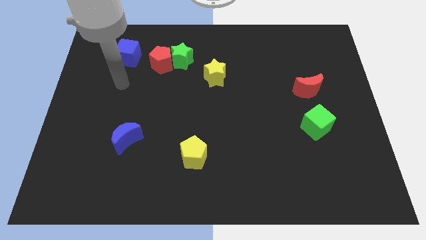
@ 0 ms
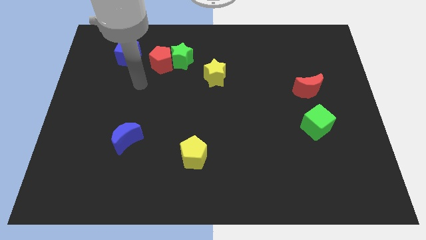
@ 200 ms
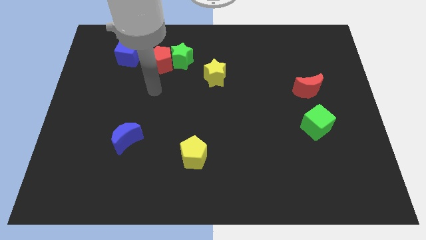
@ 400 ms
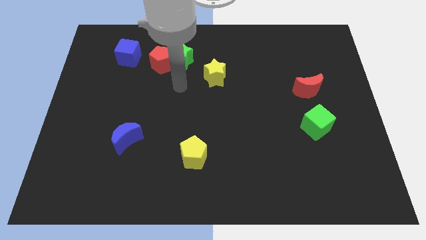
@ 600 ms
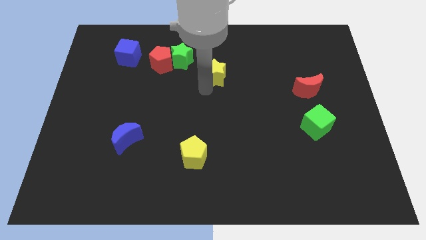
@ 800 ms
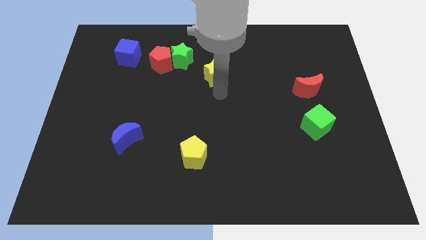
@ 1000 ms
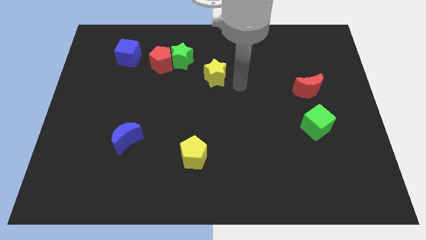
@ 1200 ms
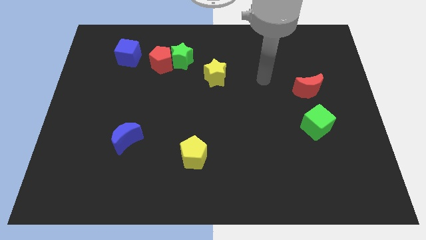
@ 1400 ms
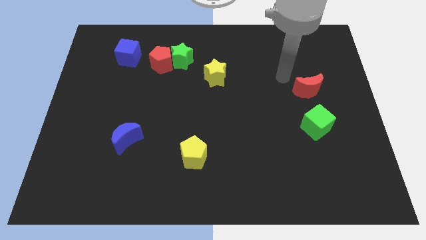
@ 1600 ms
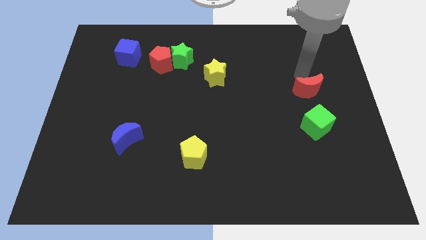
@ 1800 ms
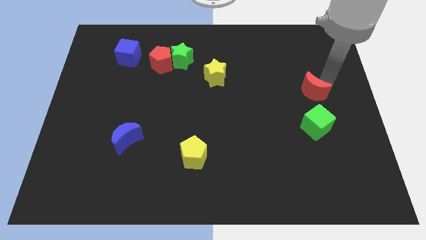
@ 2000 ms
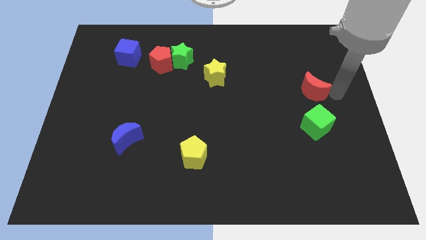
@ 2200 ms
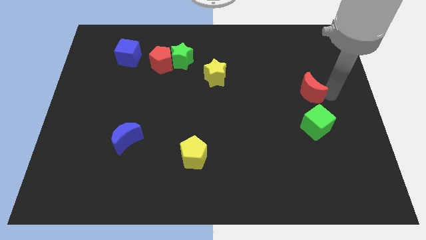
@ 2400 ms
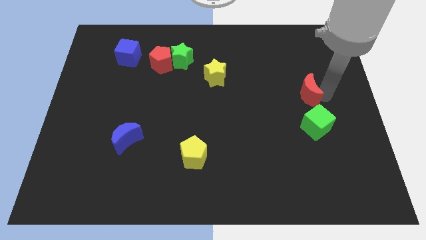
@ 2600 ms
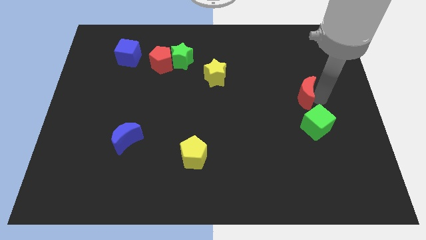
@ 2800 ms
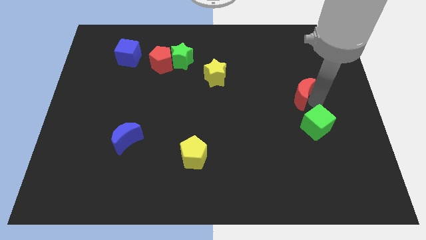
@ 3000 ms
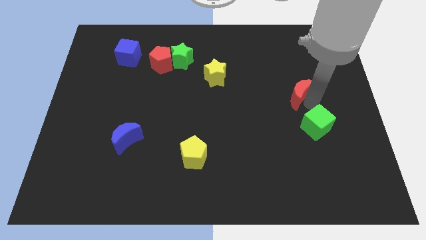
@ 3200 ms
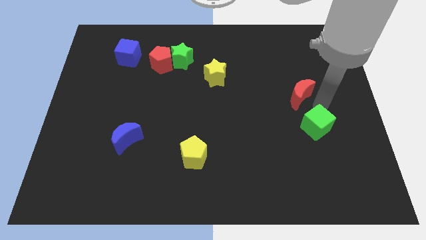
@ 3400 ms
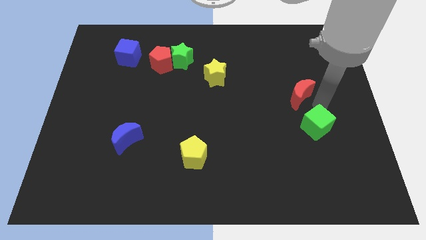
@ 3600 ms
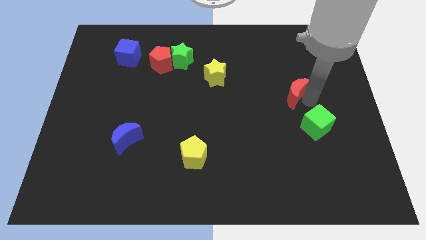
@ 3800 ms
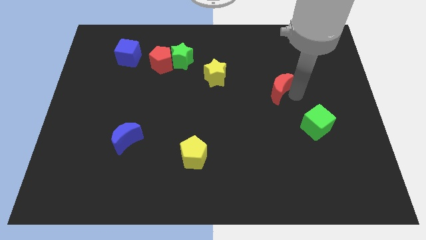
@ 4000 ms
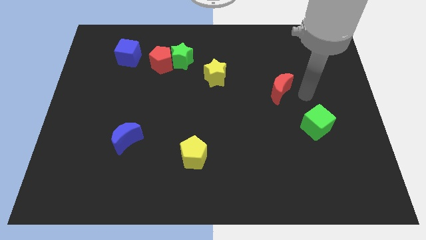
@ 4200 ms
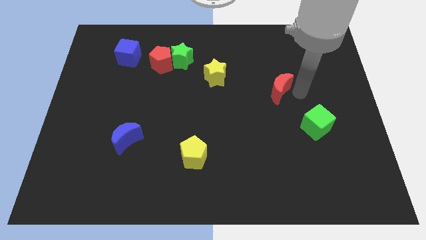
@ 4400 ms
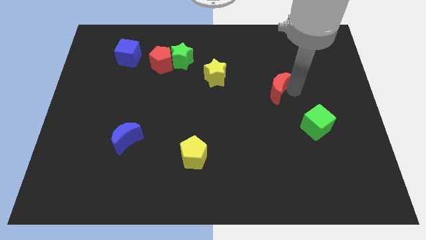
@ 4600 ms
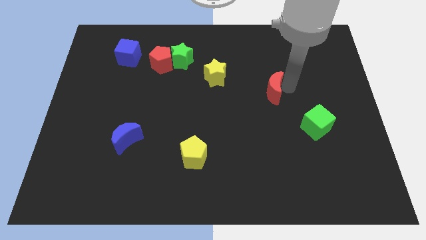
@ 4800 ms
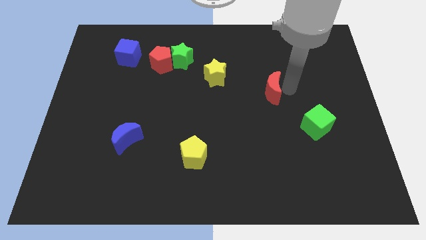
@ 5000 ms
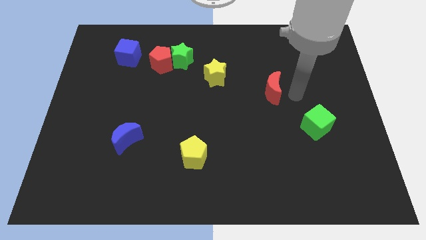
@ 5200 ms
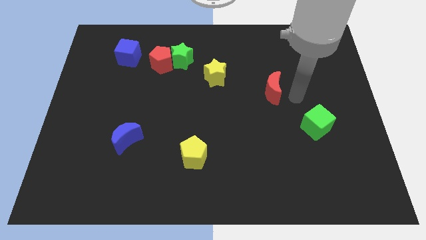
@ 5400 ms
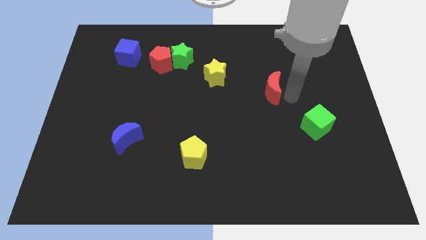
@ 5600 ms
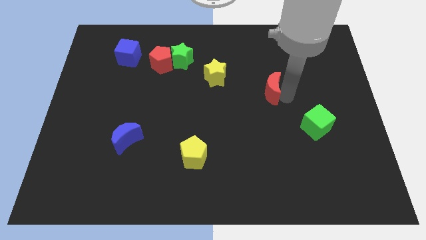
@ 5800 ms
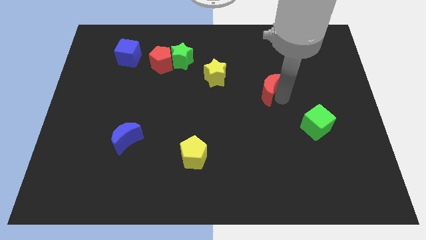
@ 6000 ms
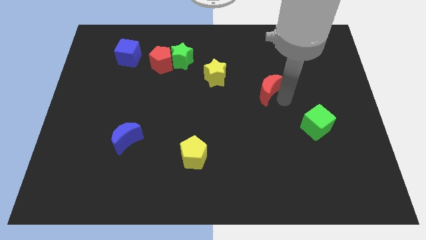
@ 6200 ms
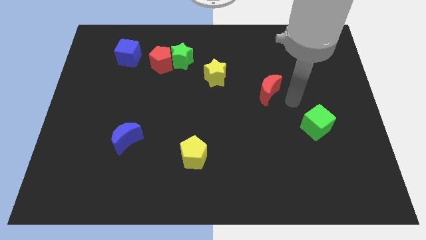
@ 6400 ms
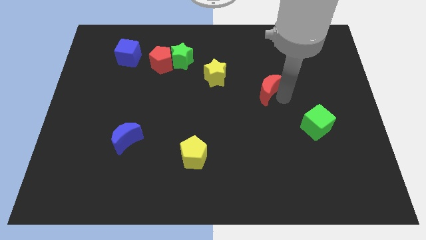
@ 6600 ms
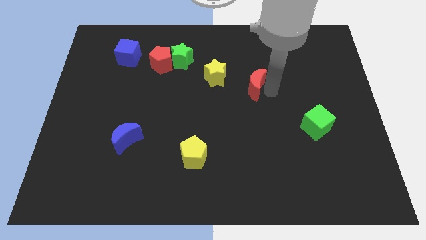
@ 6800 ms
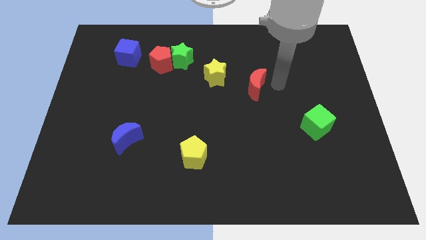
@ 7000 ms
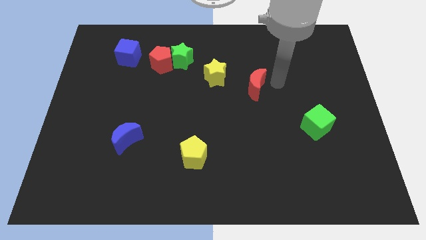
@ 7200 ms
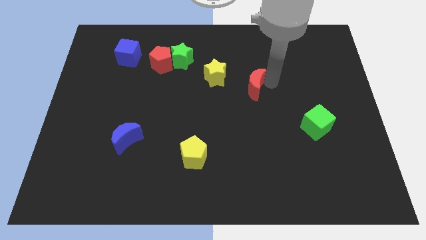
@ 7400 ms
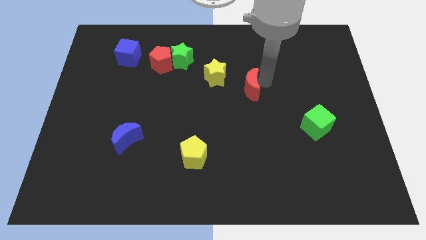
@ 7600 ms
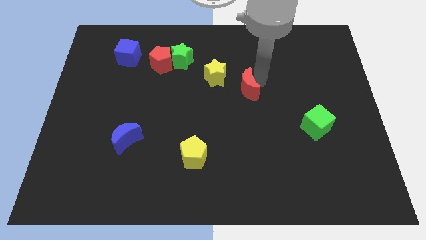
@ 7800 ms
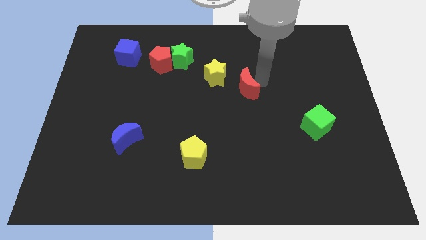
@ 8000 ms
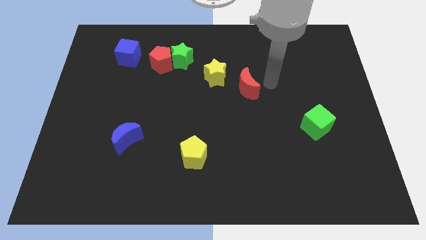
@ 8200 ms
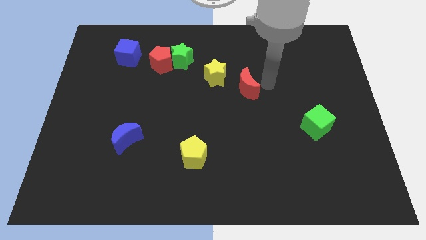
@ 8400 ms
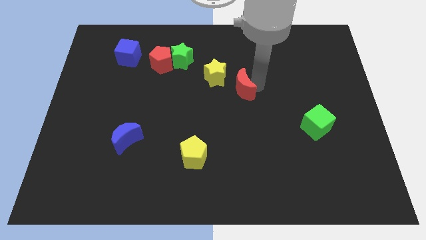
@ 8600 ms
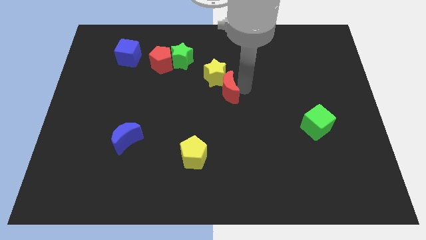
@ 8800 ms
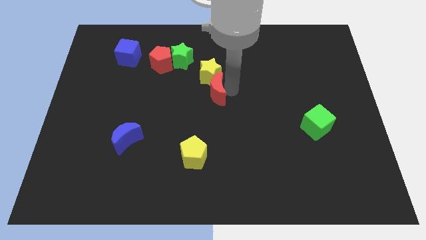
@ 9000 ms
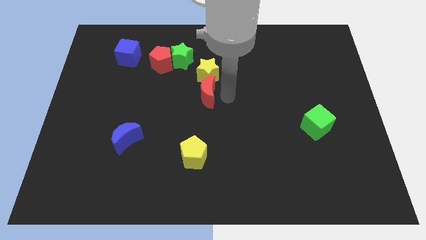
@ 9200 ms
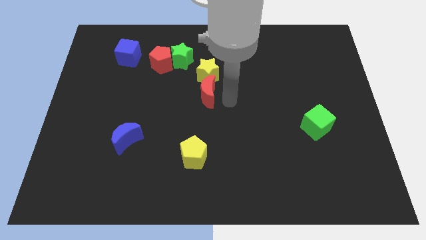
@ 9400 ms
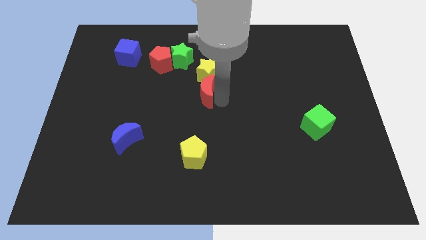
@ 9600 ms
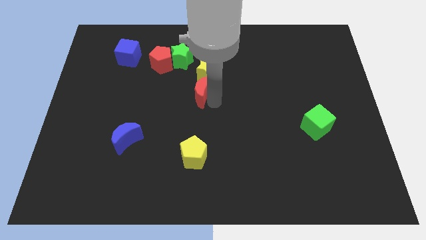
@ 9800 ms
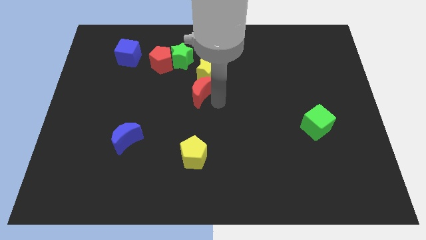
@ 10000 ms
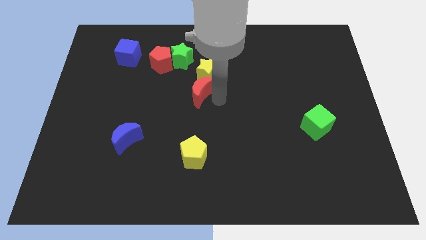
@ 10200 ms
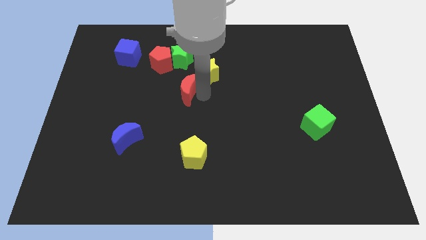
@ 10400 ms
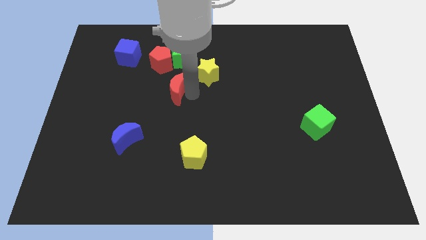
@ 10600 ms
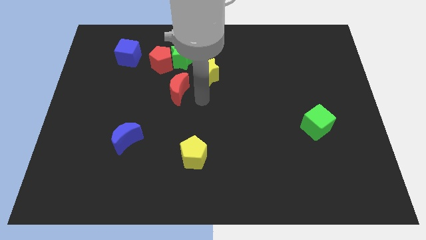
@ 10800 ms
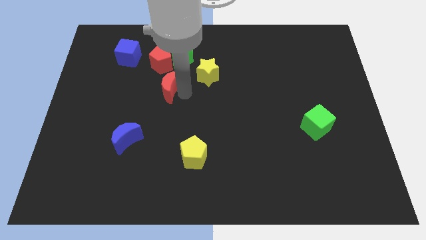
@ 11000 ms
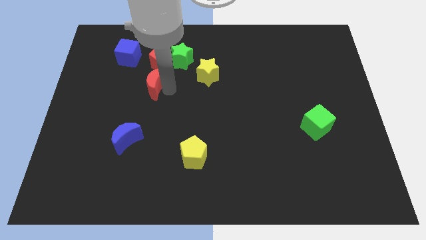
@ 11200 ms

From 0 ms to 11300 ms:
move the red moon diagonally down and to the left of the red pentagon

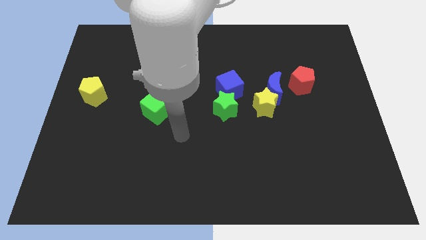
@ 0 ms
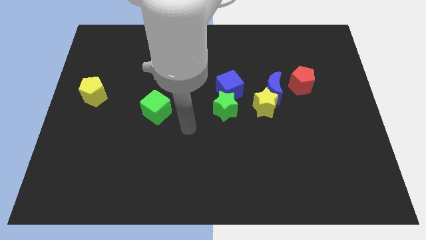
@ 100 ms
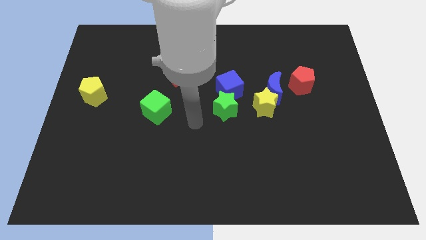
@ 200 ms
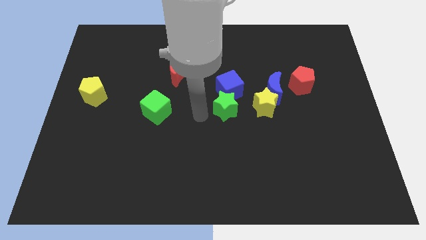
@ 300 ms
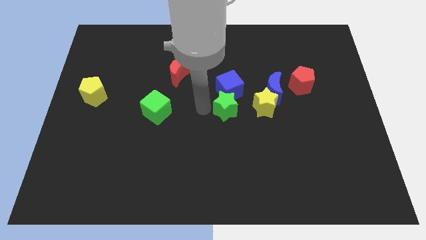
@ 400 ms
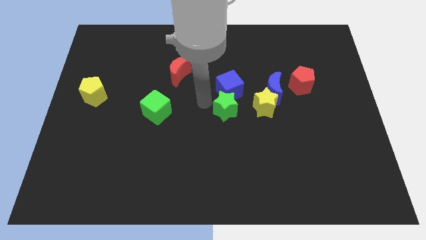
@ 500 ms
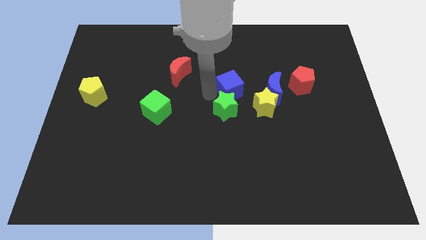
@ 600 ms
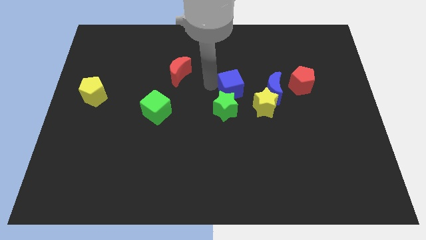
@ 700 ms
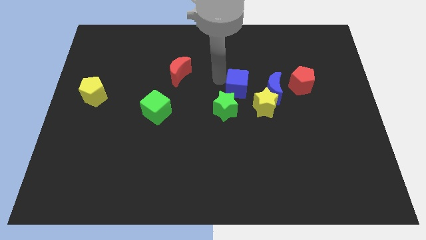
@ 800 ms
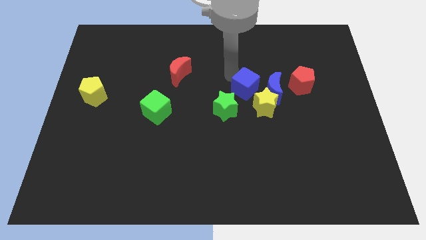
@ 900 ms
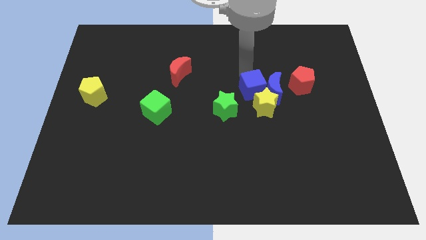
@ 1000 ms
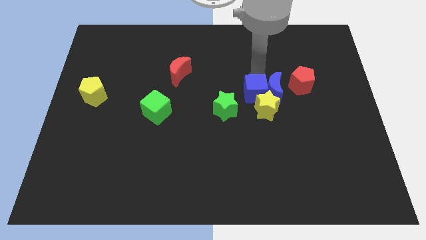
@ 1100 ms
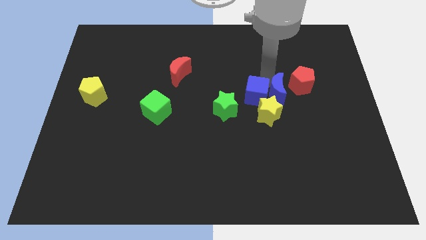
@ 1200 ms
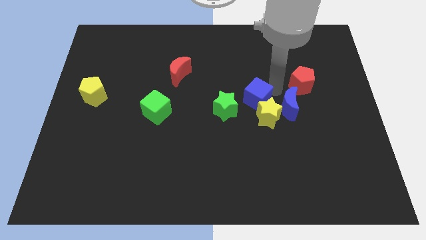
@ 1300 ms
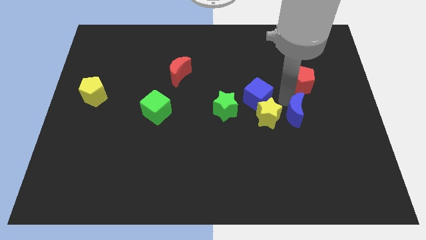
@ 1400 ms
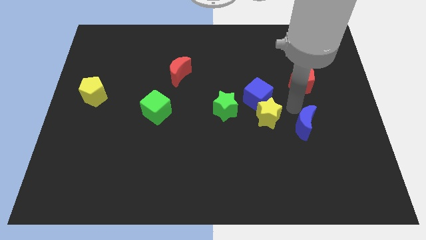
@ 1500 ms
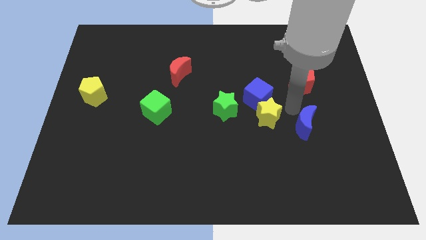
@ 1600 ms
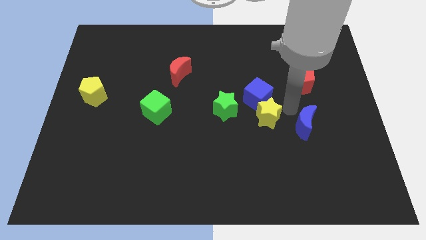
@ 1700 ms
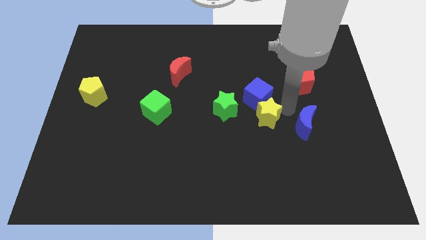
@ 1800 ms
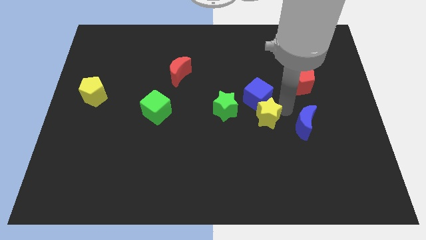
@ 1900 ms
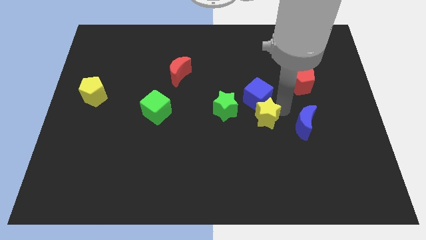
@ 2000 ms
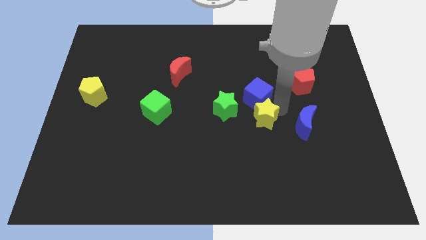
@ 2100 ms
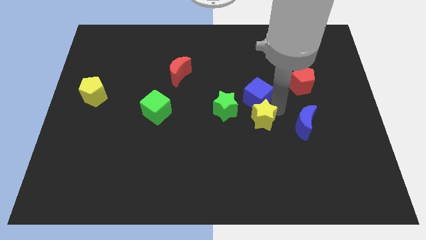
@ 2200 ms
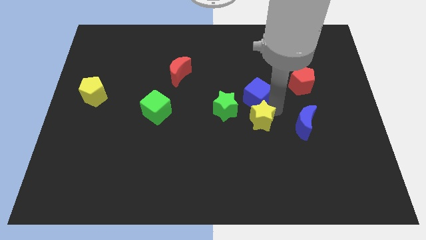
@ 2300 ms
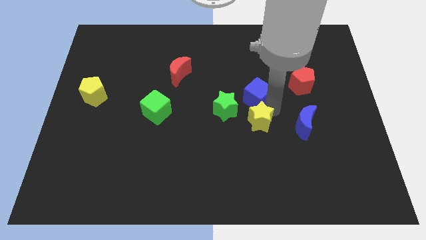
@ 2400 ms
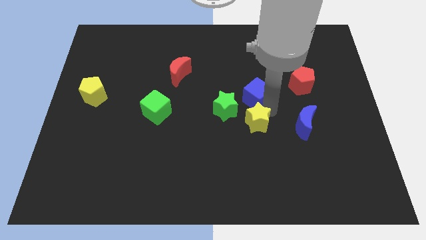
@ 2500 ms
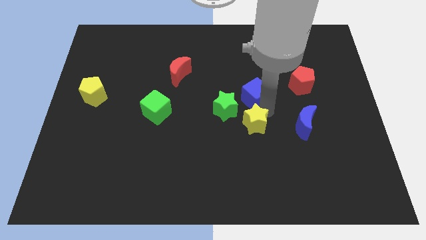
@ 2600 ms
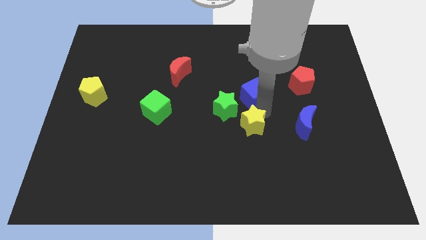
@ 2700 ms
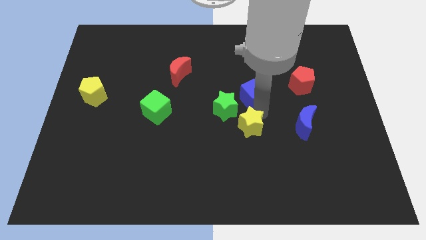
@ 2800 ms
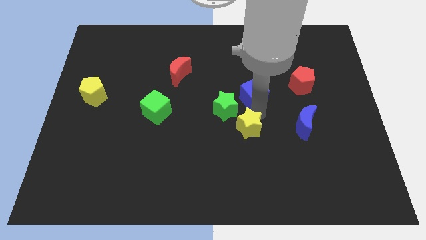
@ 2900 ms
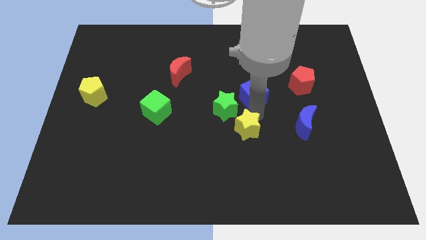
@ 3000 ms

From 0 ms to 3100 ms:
slide the yellow star to the bottom side of the green star
